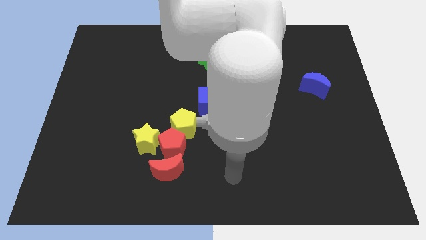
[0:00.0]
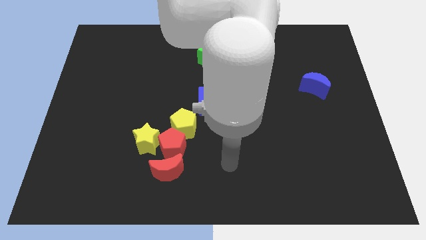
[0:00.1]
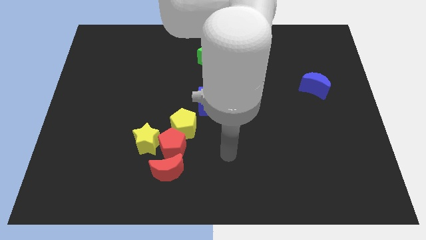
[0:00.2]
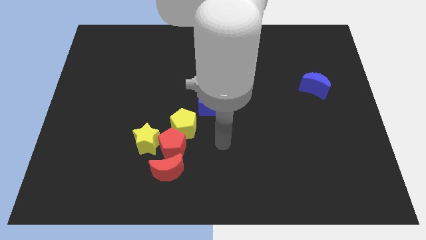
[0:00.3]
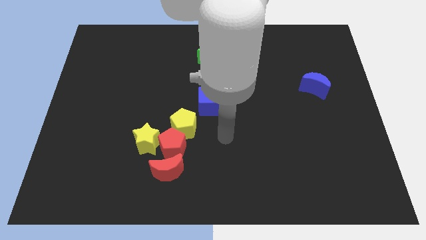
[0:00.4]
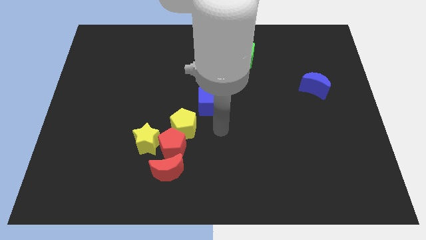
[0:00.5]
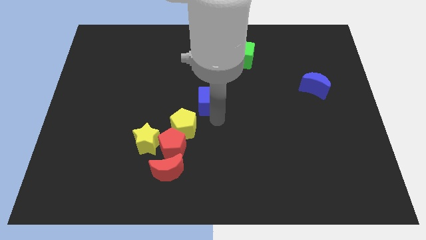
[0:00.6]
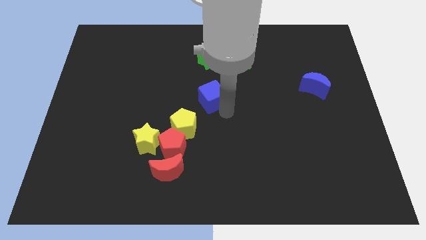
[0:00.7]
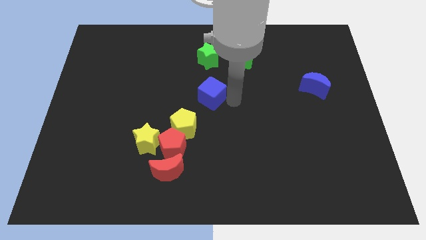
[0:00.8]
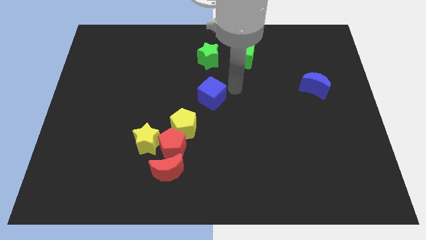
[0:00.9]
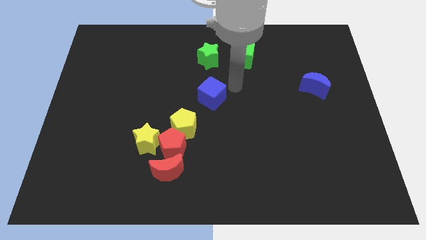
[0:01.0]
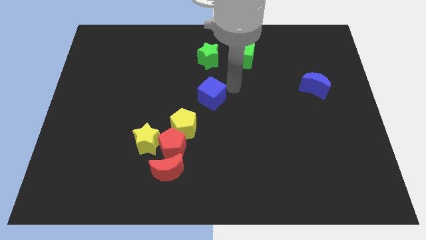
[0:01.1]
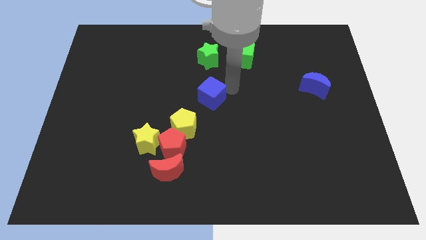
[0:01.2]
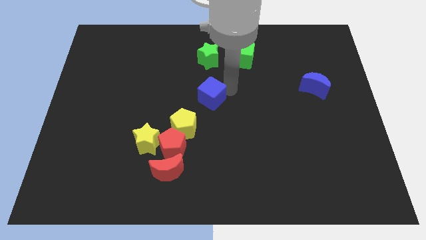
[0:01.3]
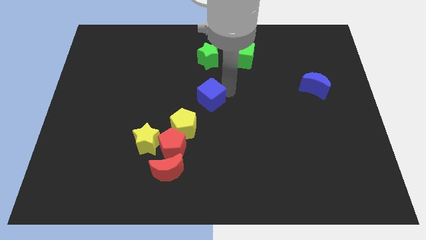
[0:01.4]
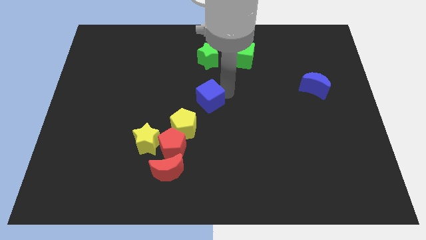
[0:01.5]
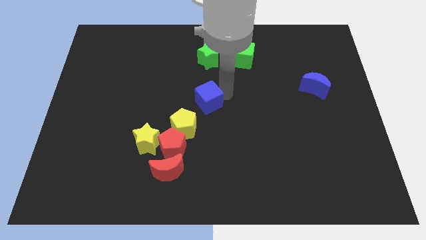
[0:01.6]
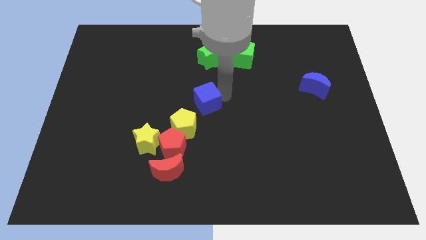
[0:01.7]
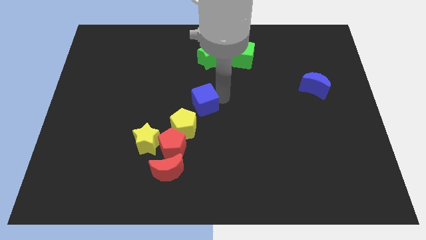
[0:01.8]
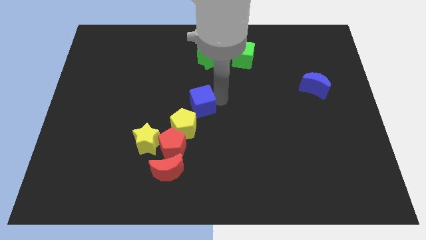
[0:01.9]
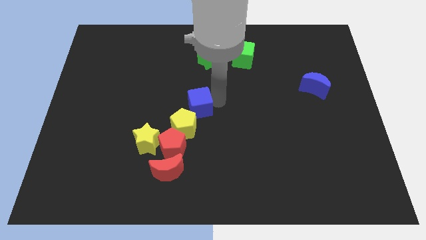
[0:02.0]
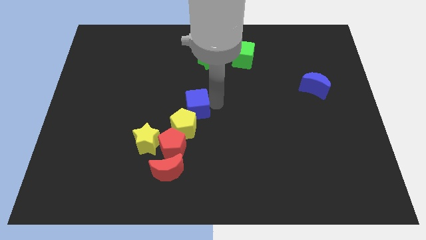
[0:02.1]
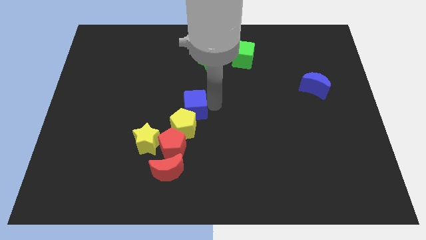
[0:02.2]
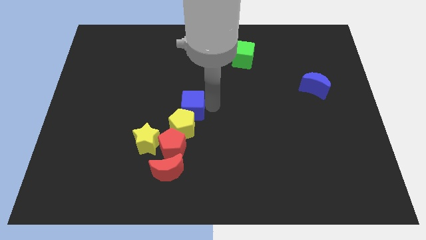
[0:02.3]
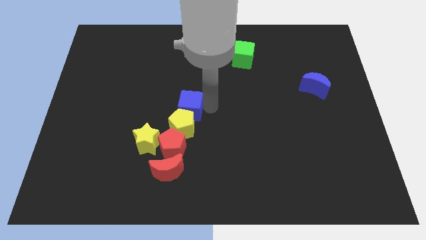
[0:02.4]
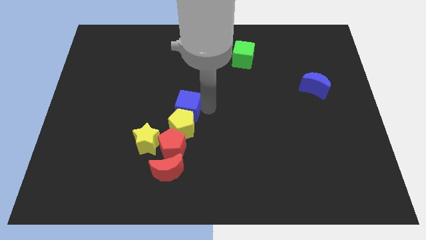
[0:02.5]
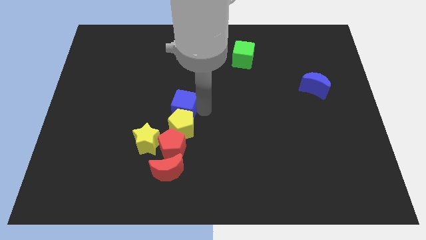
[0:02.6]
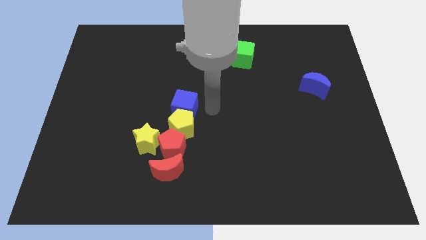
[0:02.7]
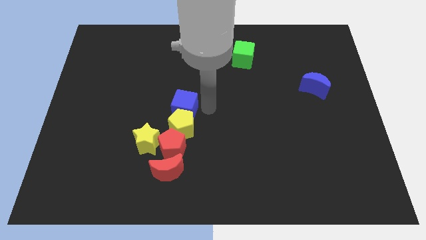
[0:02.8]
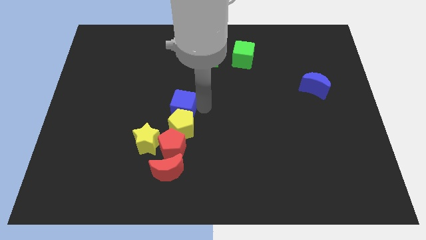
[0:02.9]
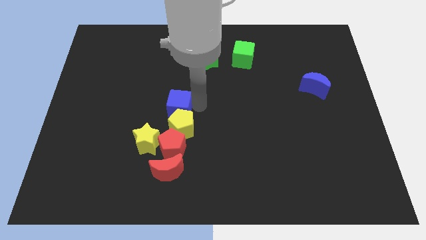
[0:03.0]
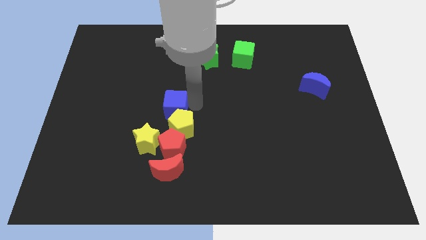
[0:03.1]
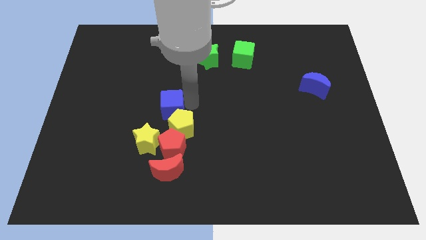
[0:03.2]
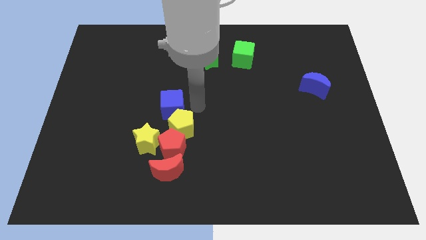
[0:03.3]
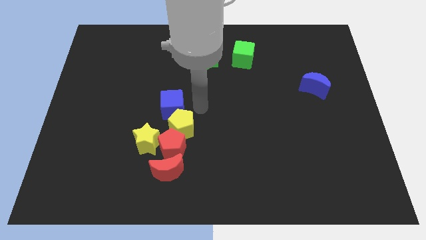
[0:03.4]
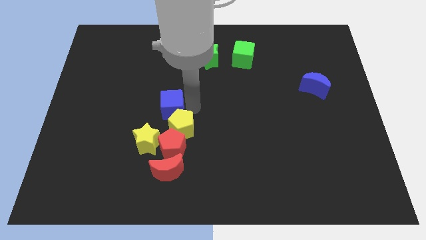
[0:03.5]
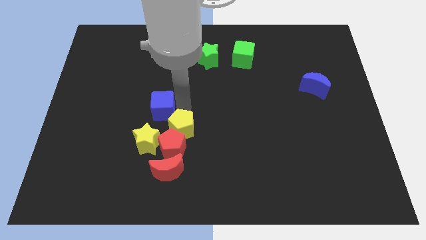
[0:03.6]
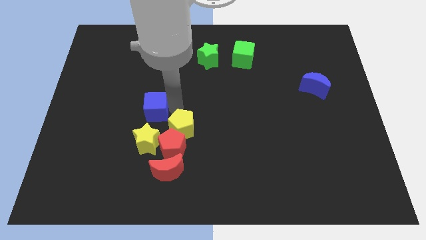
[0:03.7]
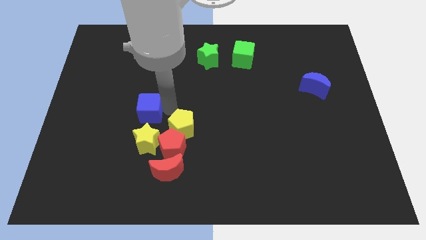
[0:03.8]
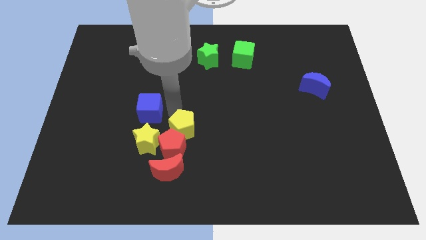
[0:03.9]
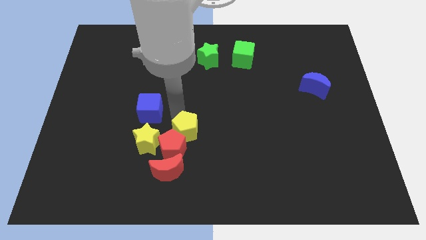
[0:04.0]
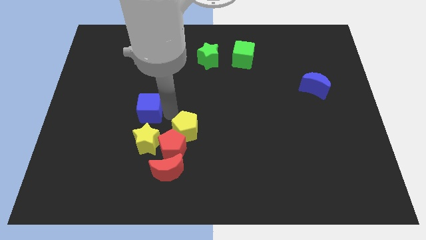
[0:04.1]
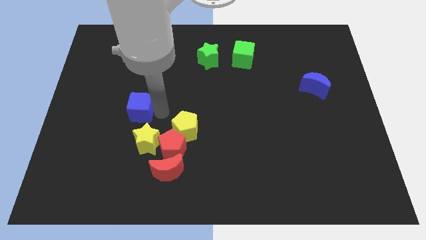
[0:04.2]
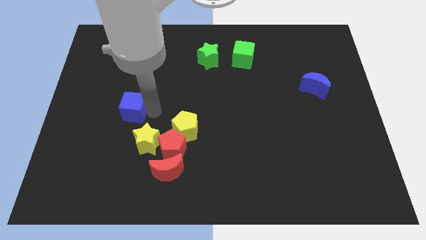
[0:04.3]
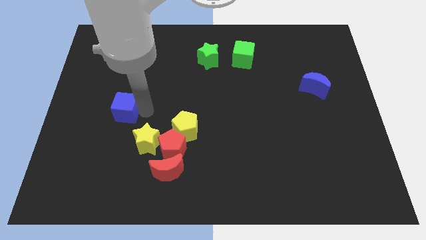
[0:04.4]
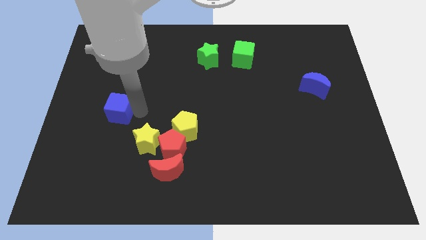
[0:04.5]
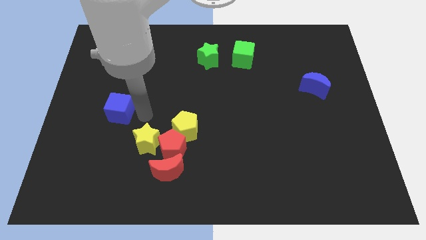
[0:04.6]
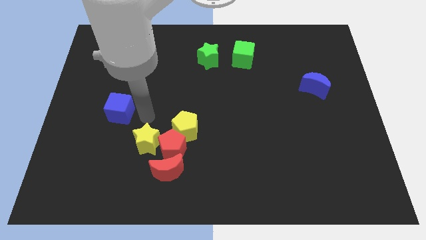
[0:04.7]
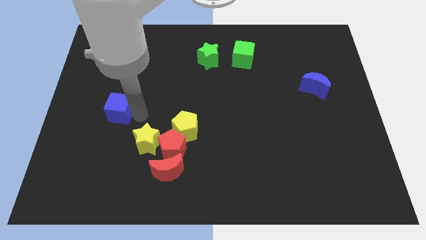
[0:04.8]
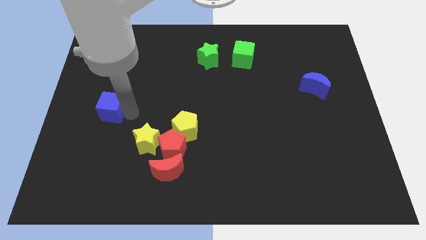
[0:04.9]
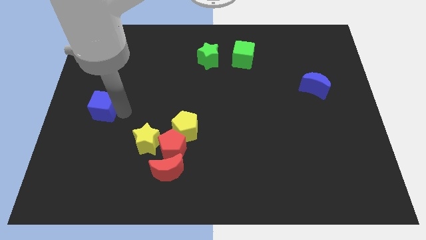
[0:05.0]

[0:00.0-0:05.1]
slide the blue cube to the left side

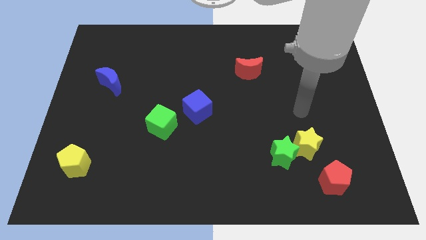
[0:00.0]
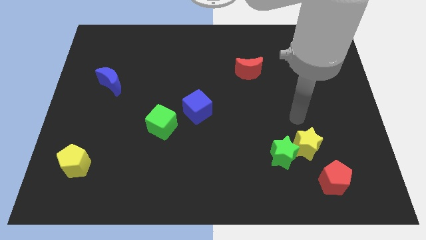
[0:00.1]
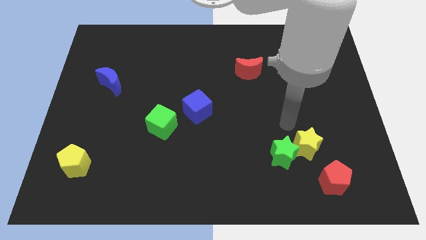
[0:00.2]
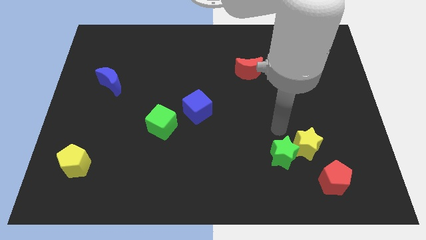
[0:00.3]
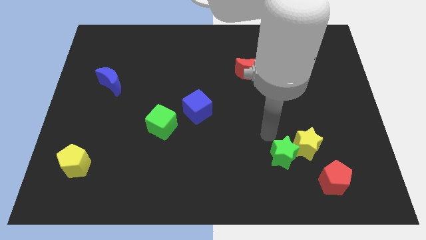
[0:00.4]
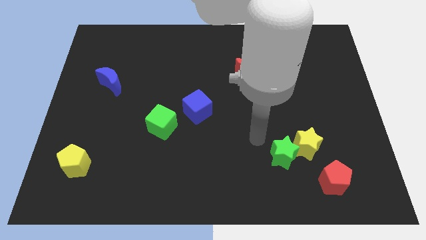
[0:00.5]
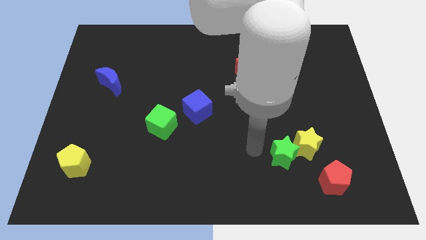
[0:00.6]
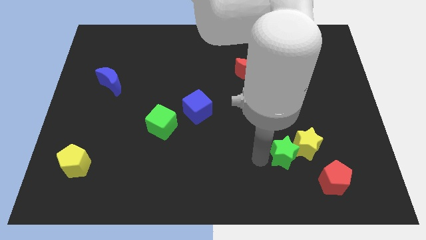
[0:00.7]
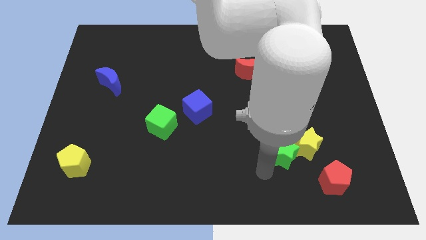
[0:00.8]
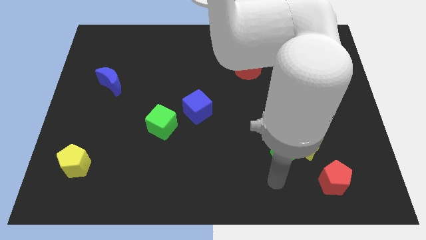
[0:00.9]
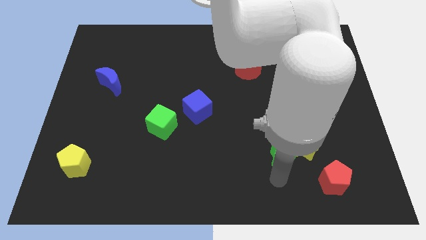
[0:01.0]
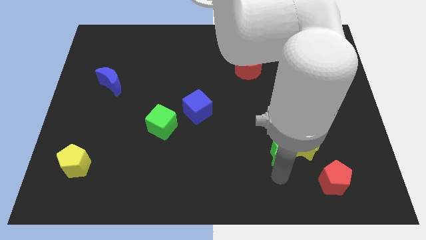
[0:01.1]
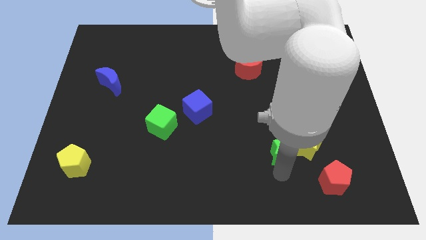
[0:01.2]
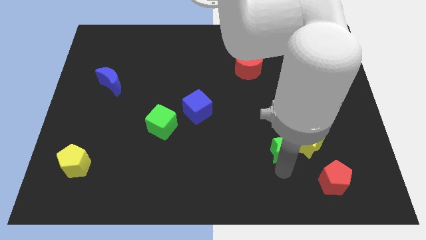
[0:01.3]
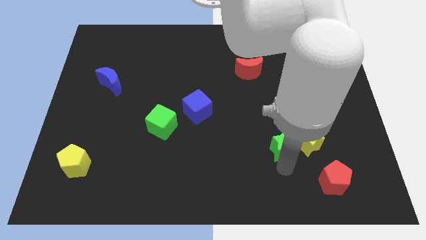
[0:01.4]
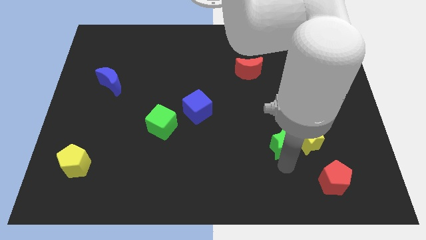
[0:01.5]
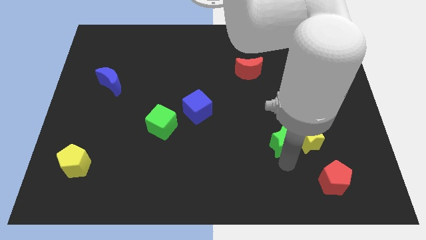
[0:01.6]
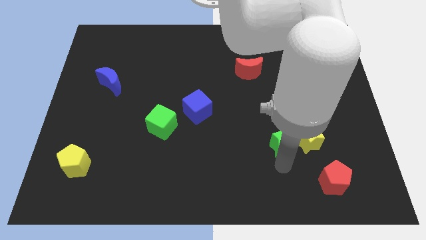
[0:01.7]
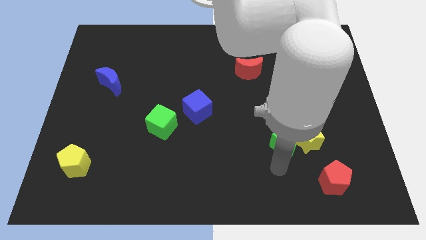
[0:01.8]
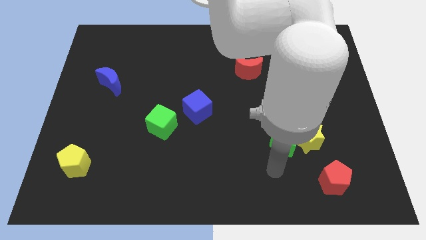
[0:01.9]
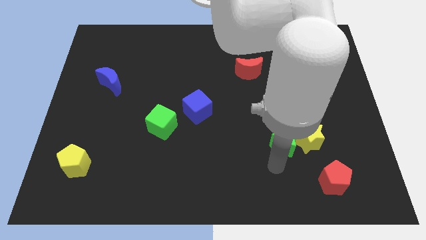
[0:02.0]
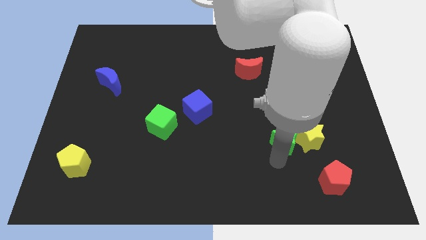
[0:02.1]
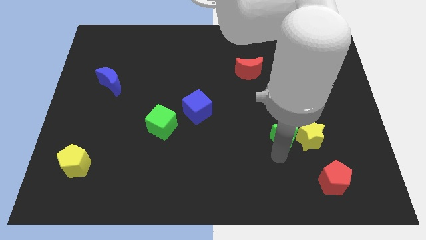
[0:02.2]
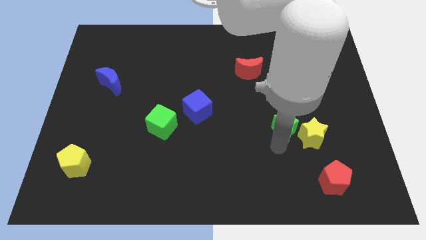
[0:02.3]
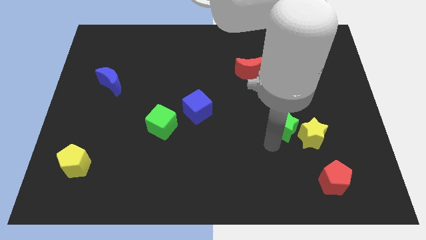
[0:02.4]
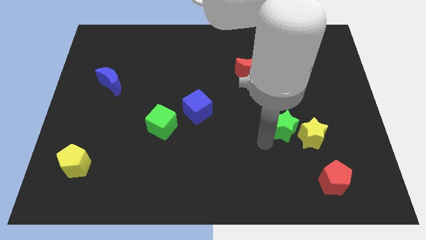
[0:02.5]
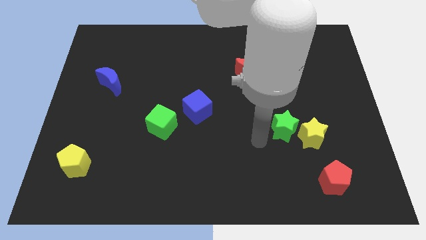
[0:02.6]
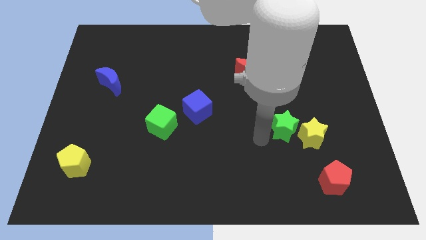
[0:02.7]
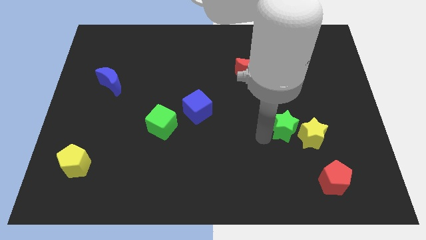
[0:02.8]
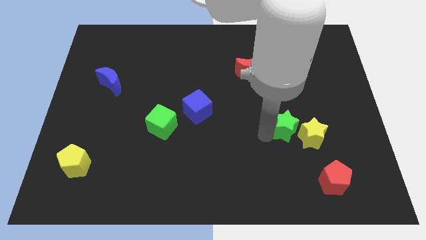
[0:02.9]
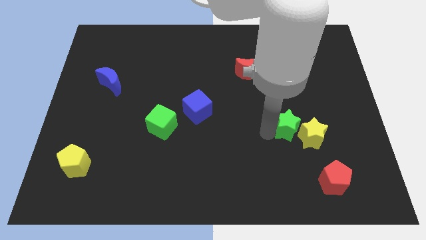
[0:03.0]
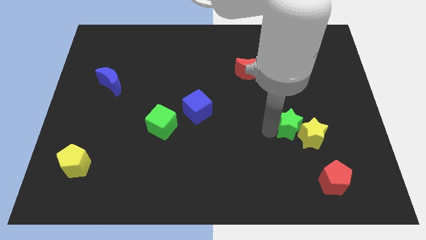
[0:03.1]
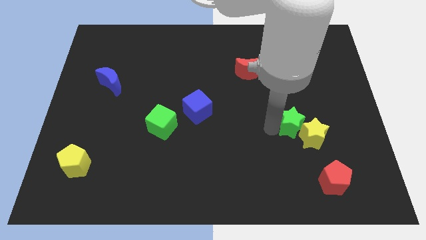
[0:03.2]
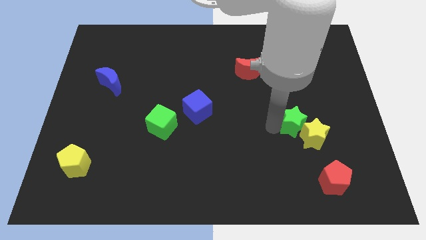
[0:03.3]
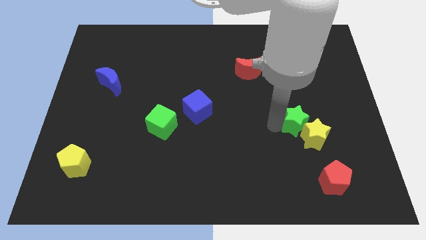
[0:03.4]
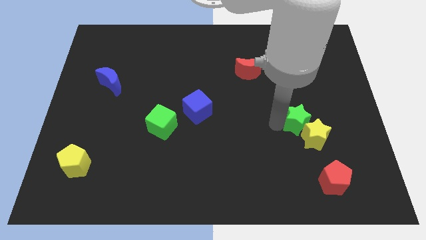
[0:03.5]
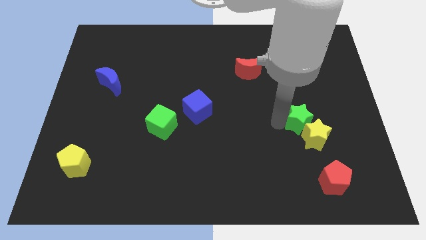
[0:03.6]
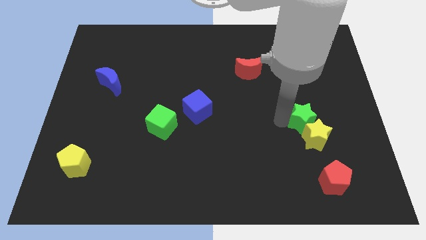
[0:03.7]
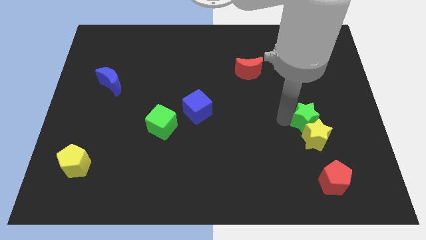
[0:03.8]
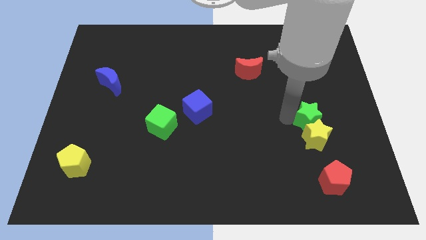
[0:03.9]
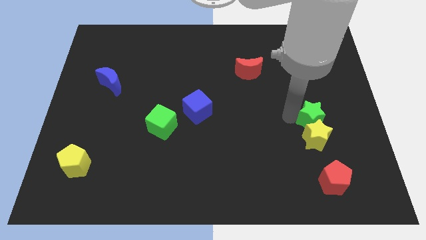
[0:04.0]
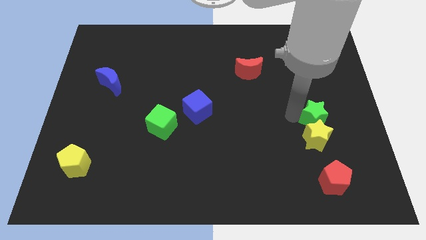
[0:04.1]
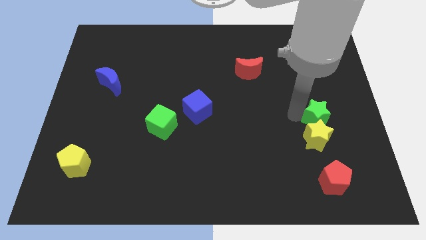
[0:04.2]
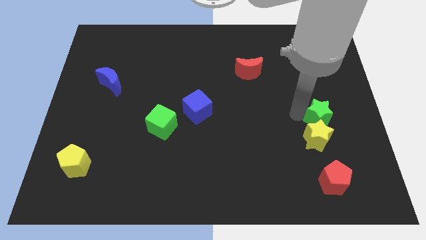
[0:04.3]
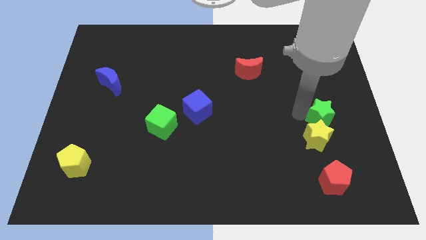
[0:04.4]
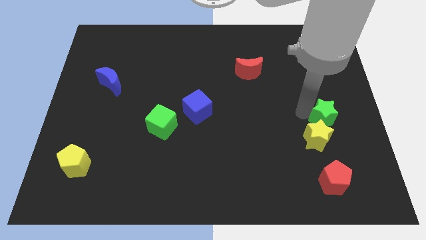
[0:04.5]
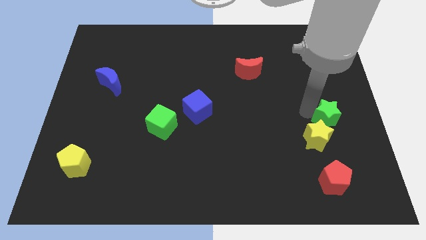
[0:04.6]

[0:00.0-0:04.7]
push the green star to the center right
